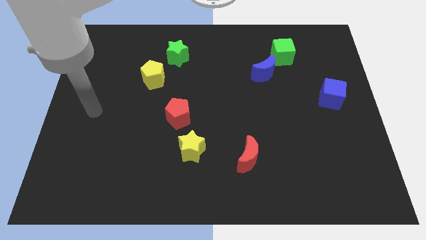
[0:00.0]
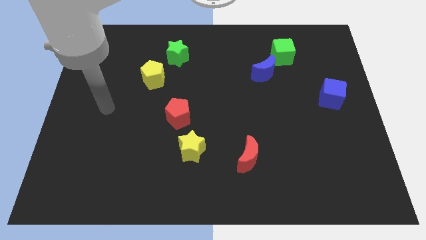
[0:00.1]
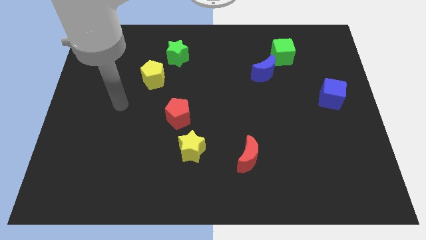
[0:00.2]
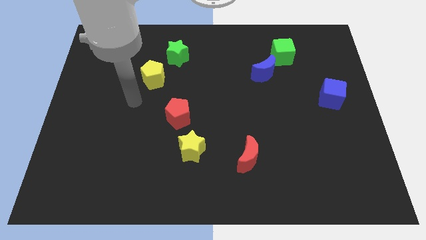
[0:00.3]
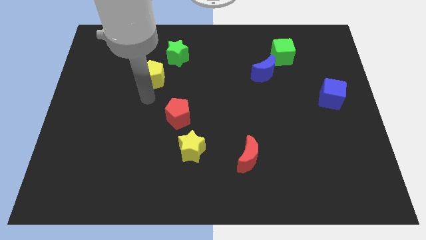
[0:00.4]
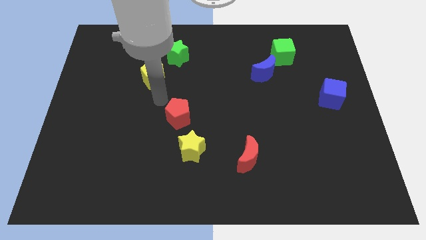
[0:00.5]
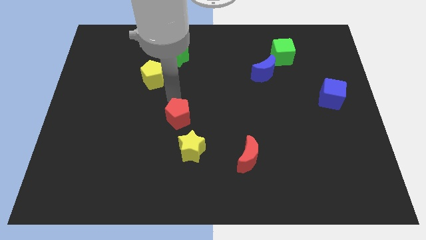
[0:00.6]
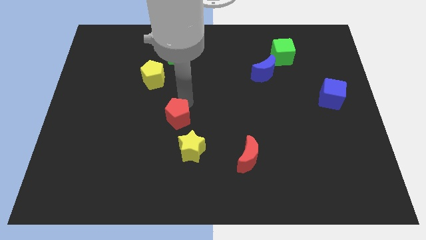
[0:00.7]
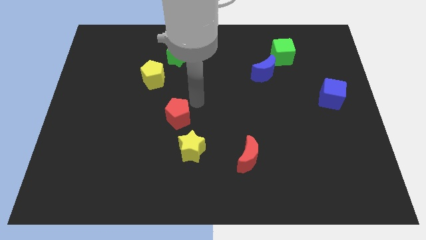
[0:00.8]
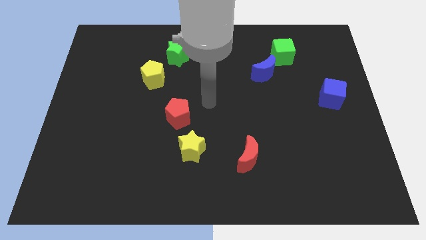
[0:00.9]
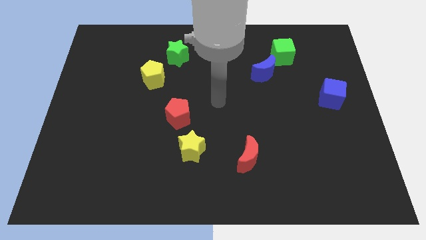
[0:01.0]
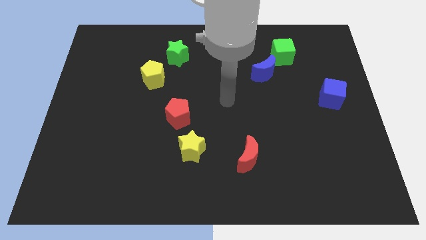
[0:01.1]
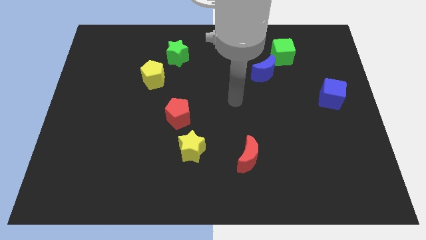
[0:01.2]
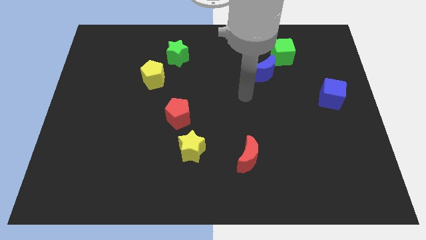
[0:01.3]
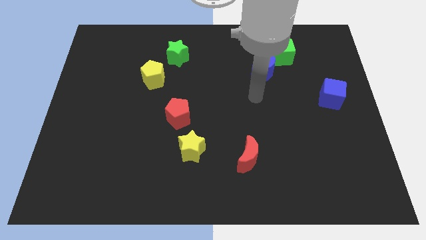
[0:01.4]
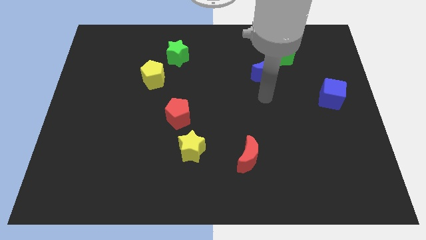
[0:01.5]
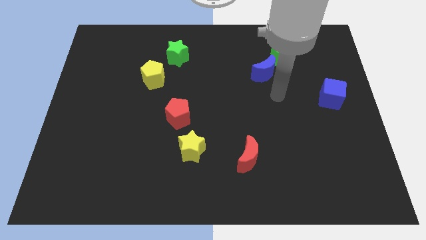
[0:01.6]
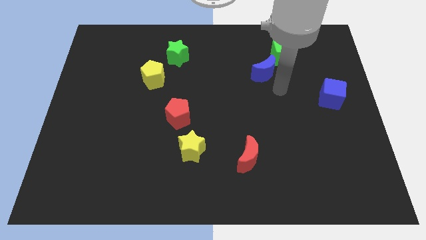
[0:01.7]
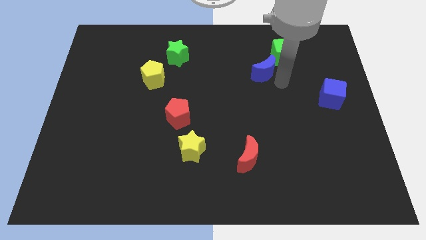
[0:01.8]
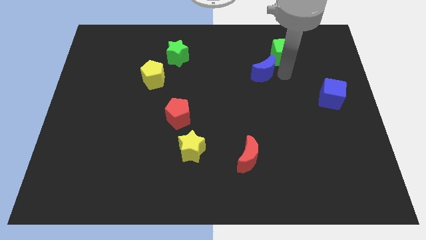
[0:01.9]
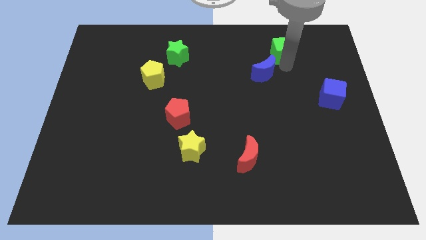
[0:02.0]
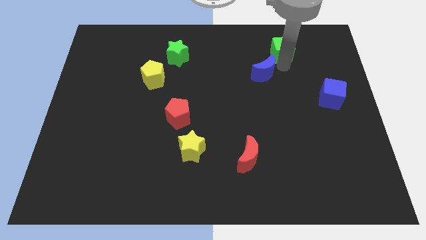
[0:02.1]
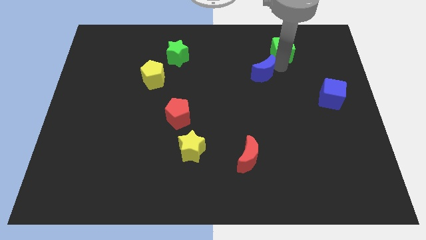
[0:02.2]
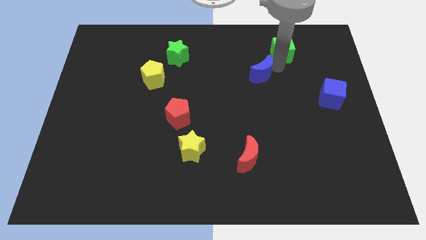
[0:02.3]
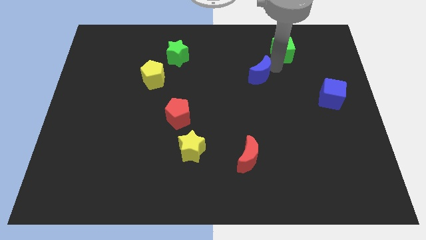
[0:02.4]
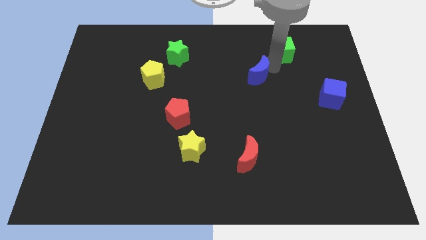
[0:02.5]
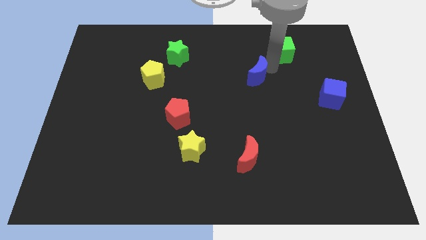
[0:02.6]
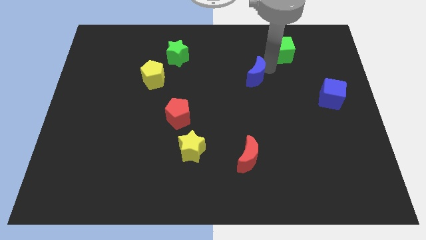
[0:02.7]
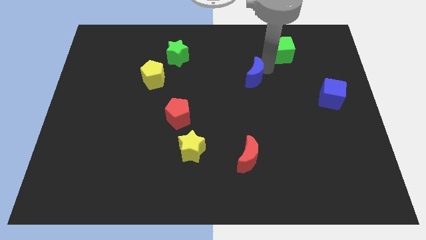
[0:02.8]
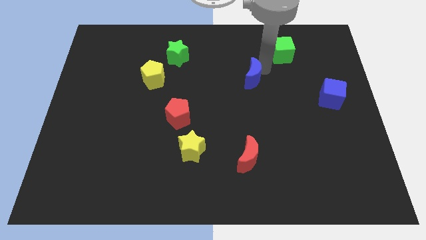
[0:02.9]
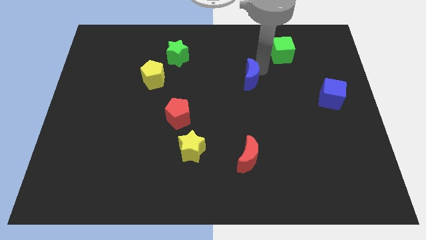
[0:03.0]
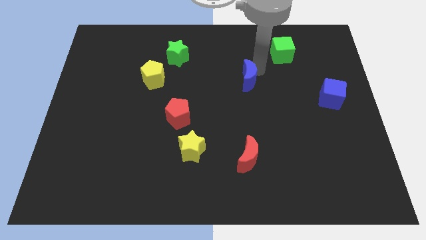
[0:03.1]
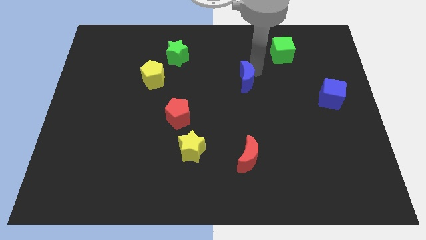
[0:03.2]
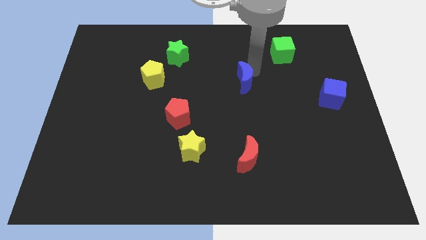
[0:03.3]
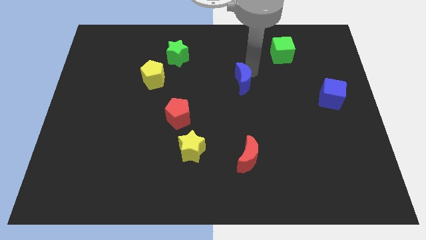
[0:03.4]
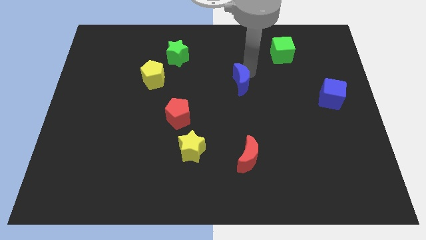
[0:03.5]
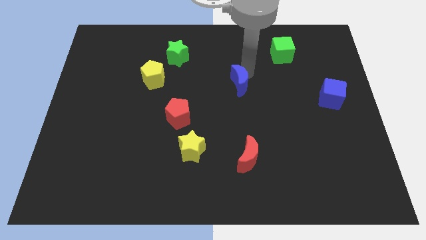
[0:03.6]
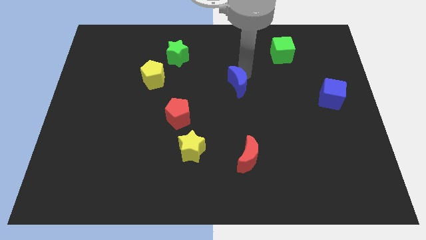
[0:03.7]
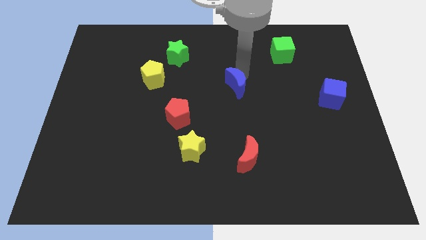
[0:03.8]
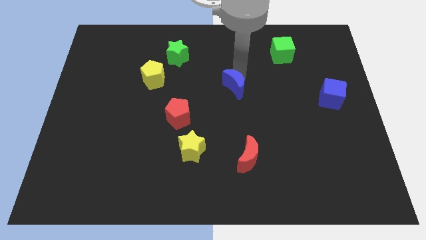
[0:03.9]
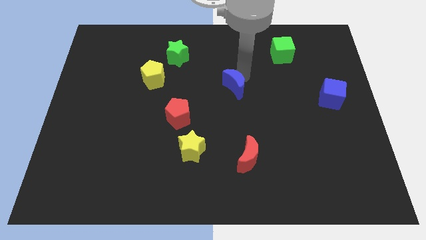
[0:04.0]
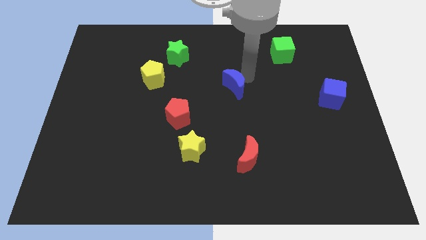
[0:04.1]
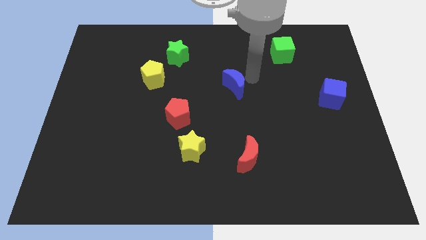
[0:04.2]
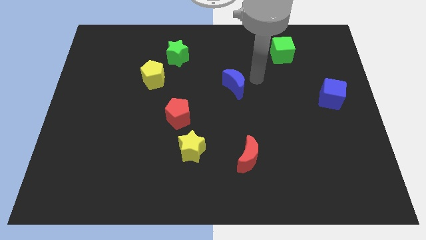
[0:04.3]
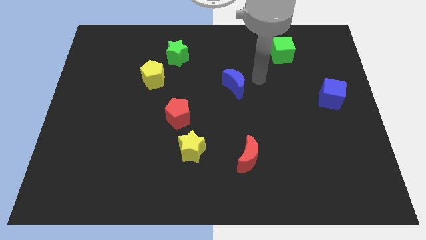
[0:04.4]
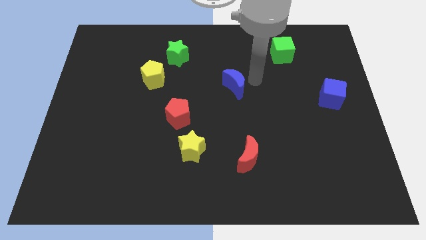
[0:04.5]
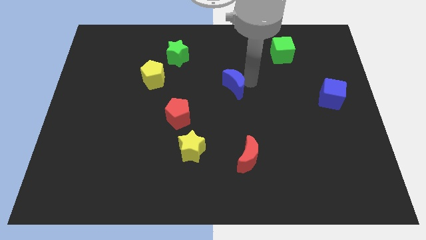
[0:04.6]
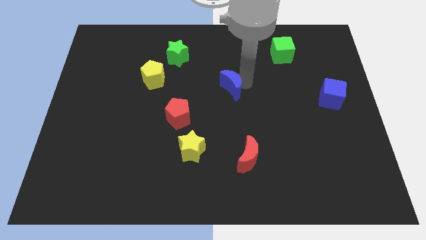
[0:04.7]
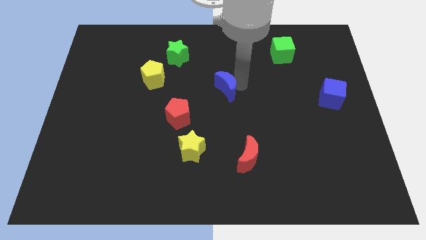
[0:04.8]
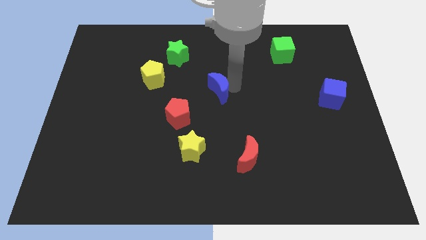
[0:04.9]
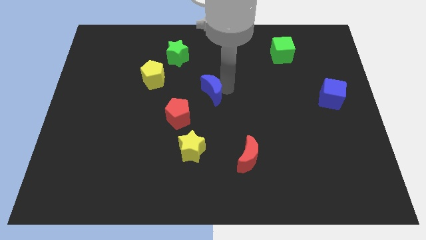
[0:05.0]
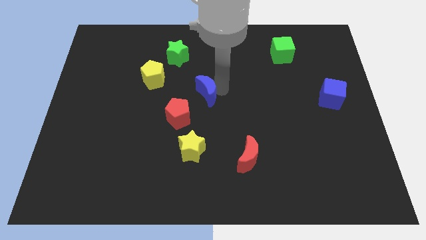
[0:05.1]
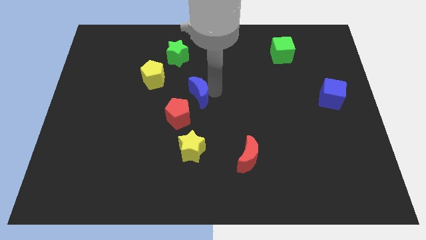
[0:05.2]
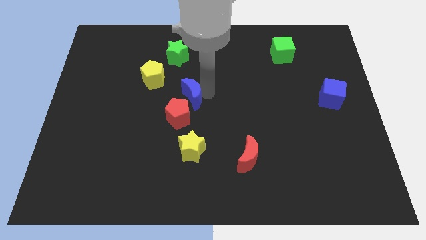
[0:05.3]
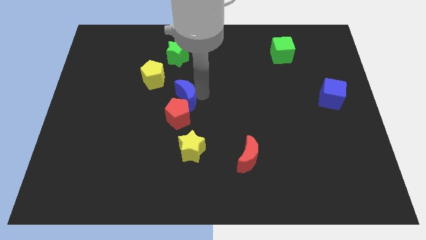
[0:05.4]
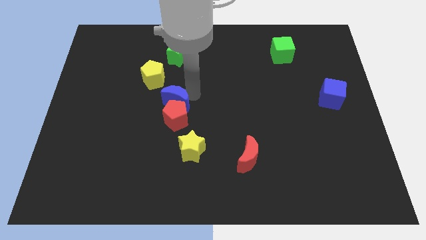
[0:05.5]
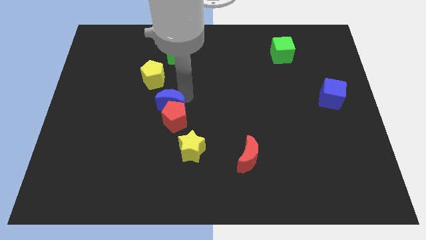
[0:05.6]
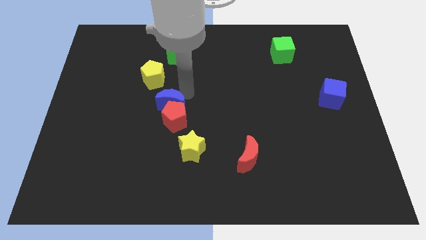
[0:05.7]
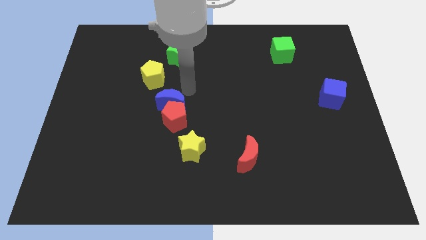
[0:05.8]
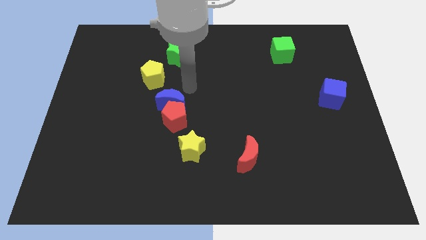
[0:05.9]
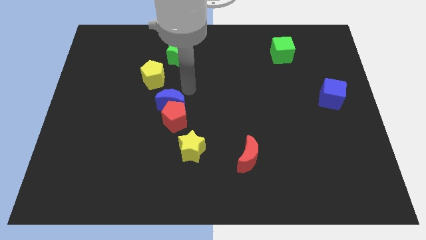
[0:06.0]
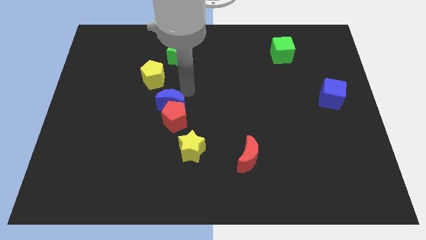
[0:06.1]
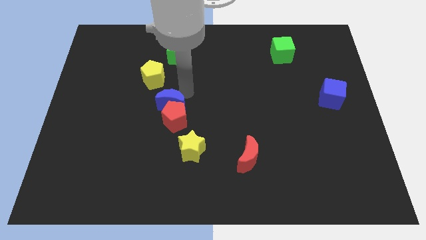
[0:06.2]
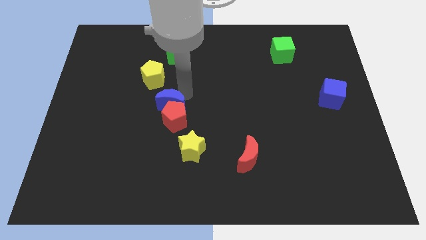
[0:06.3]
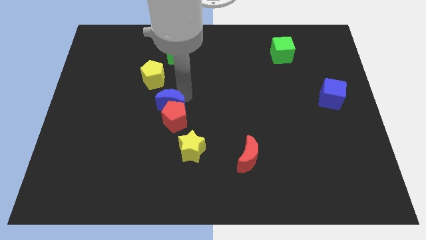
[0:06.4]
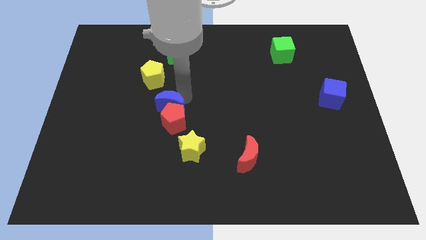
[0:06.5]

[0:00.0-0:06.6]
slide the blue moon downwards and to the left

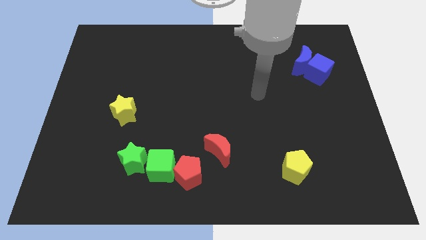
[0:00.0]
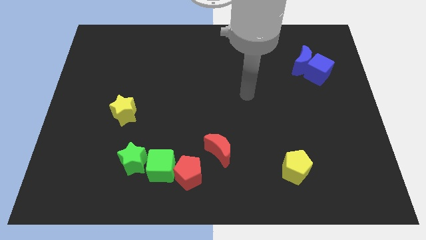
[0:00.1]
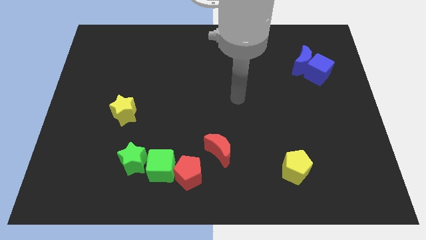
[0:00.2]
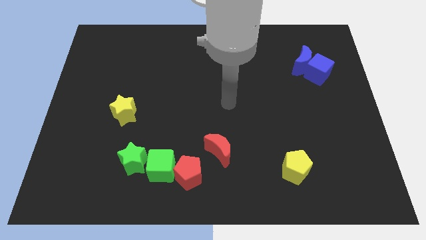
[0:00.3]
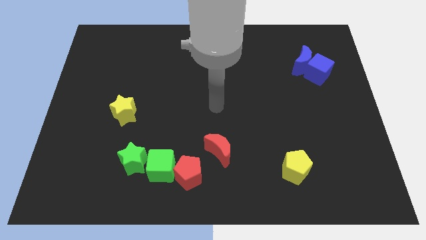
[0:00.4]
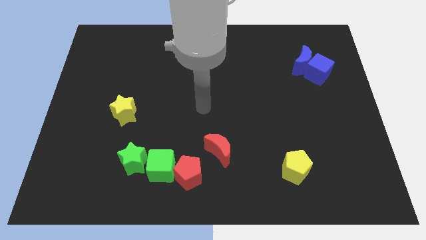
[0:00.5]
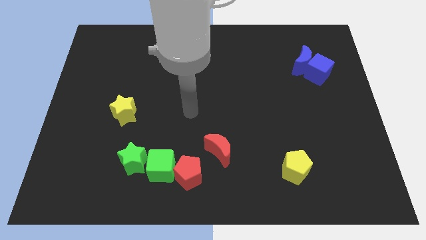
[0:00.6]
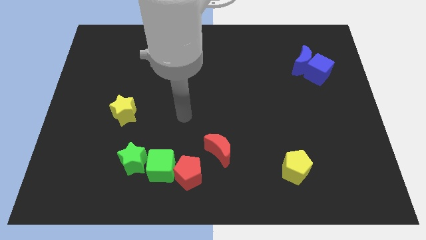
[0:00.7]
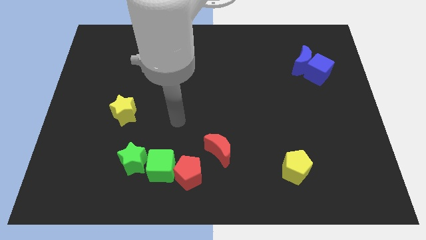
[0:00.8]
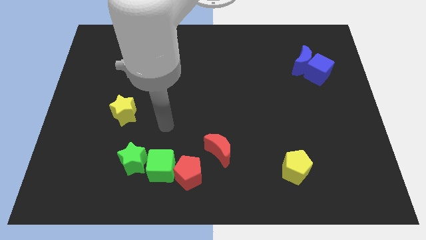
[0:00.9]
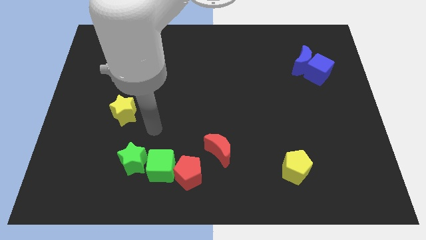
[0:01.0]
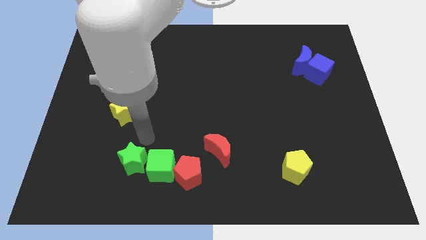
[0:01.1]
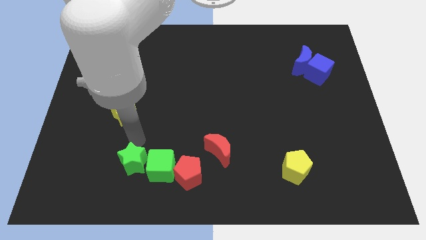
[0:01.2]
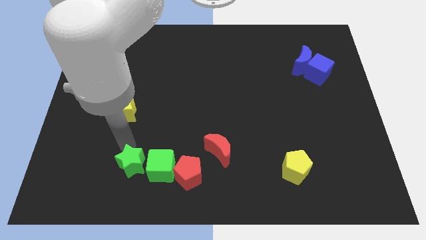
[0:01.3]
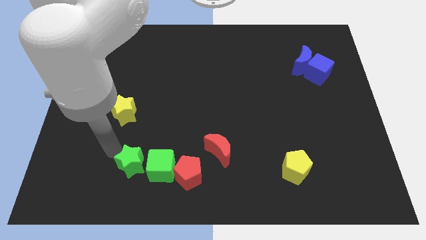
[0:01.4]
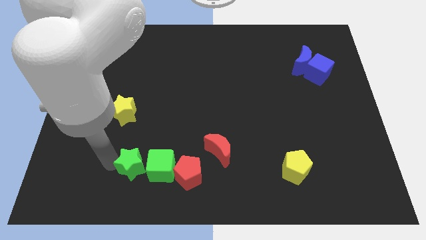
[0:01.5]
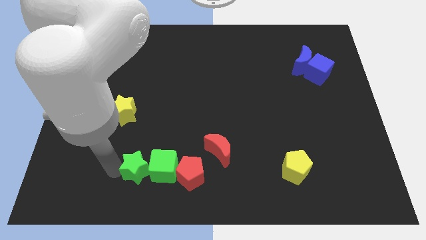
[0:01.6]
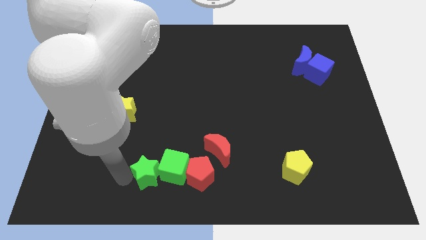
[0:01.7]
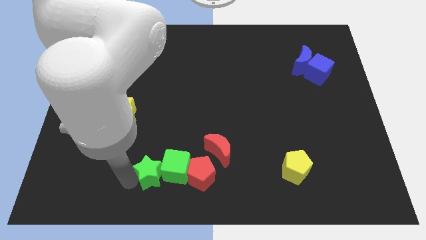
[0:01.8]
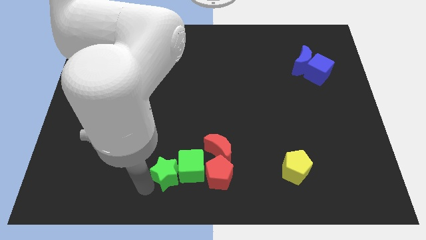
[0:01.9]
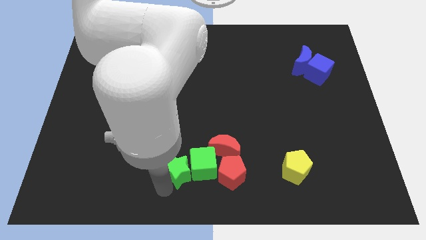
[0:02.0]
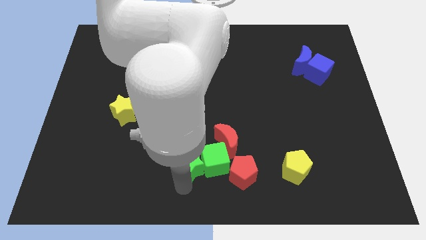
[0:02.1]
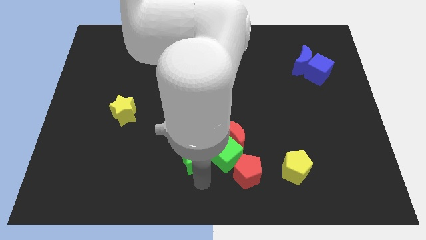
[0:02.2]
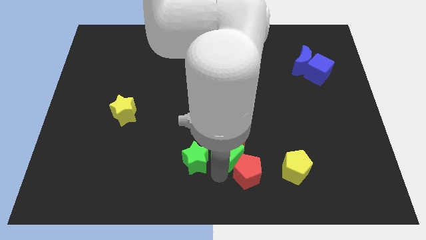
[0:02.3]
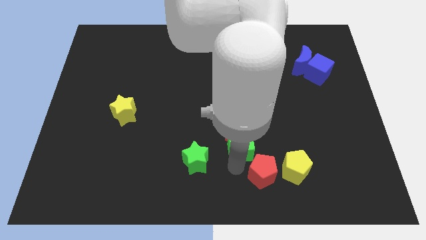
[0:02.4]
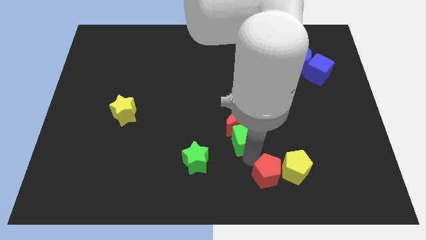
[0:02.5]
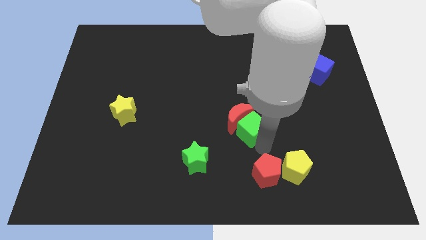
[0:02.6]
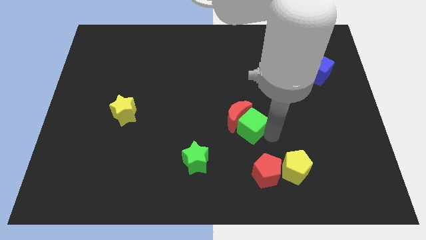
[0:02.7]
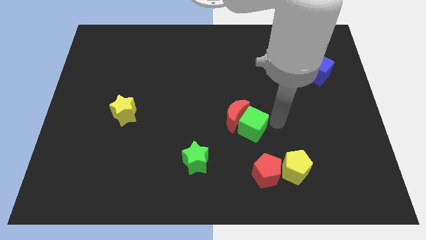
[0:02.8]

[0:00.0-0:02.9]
push the green cube diagonally upwards and to the right
